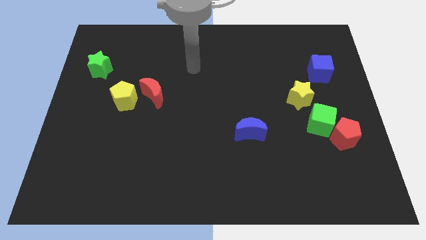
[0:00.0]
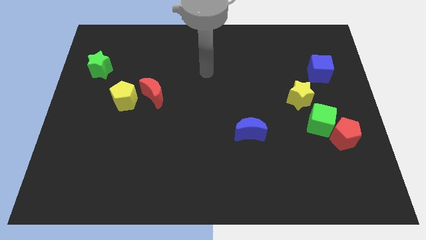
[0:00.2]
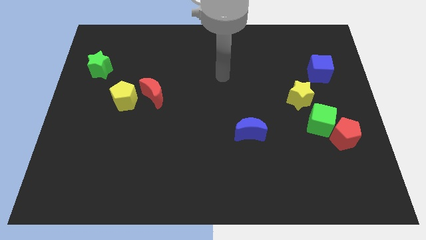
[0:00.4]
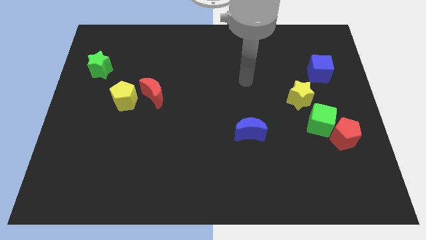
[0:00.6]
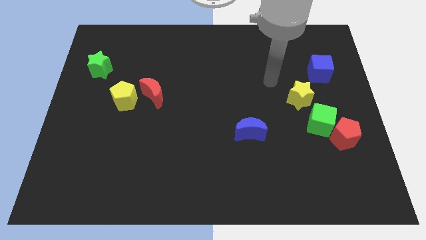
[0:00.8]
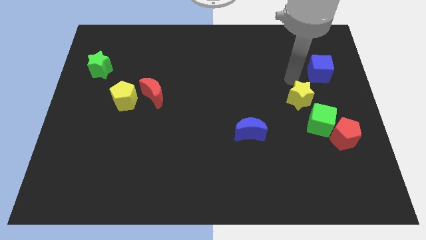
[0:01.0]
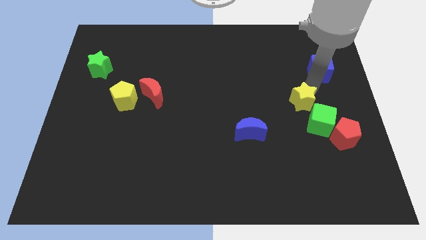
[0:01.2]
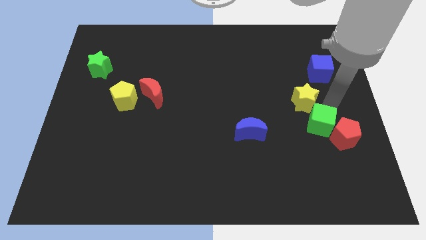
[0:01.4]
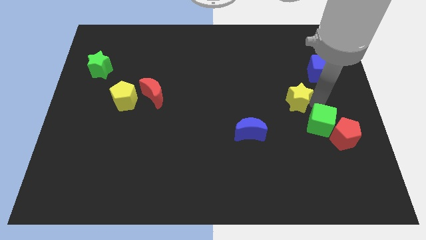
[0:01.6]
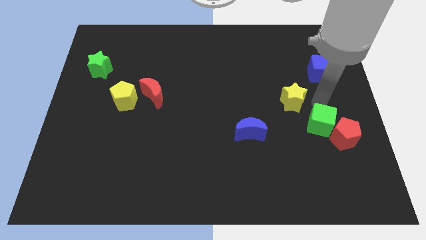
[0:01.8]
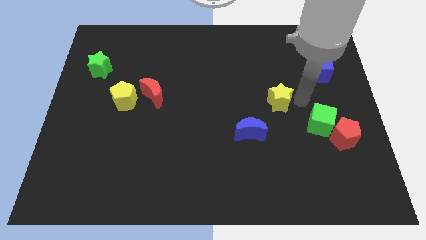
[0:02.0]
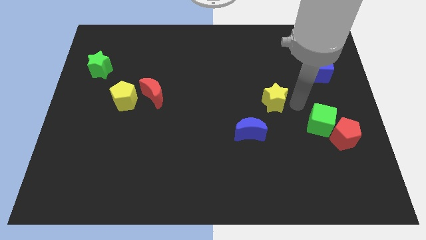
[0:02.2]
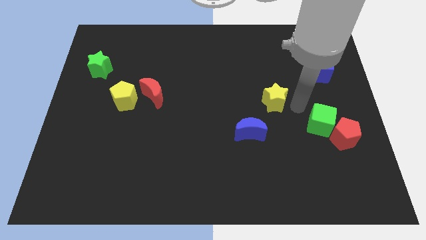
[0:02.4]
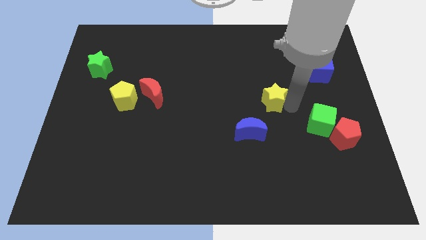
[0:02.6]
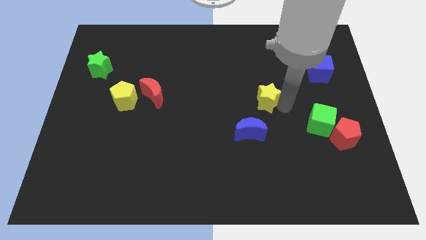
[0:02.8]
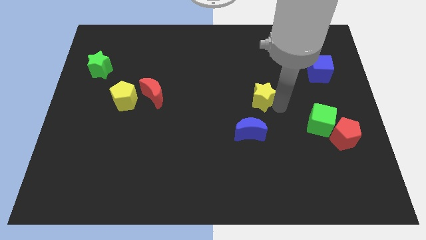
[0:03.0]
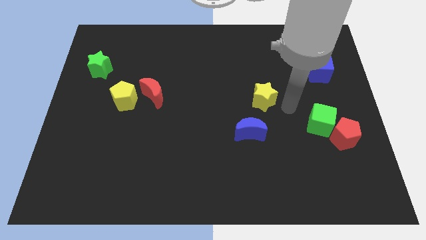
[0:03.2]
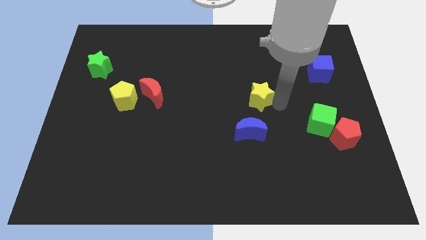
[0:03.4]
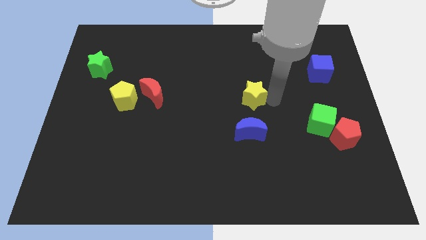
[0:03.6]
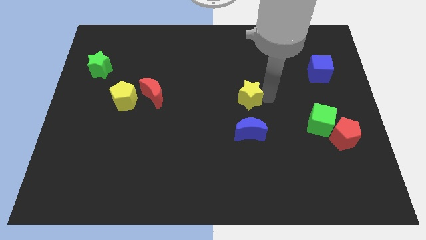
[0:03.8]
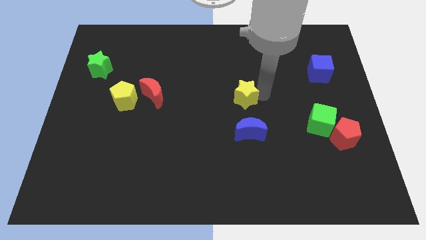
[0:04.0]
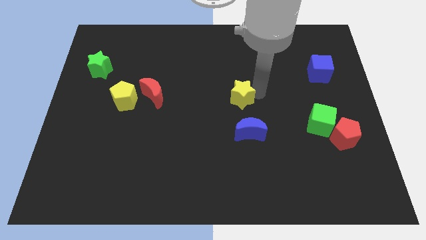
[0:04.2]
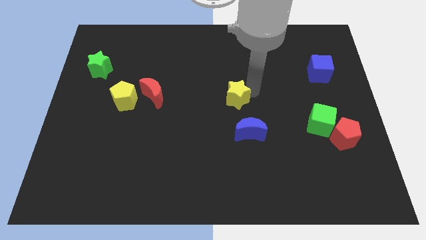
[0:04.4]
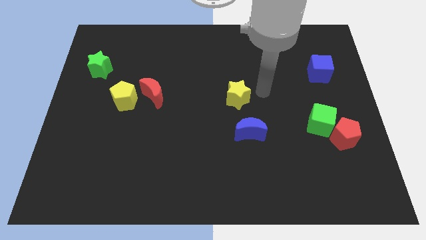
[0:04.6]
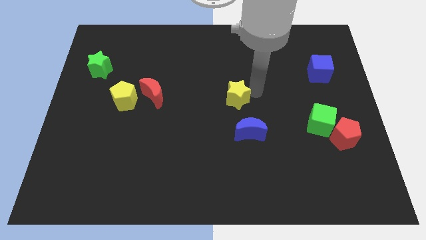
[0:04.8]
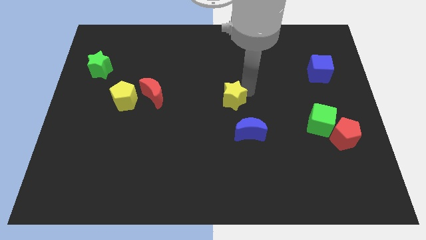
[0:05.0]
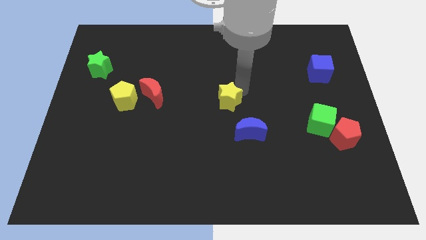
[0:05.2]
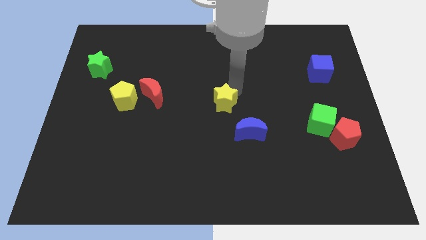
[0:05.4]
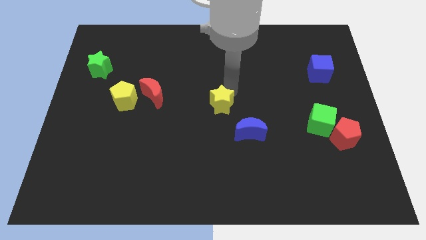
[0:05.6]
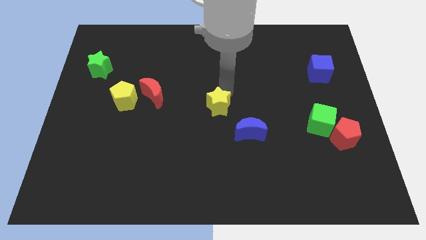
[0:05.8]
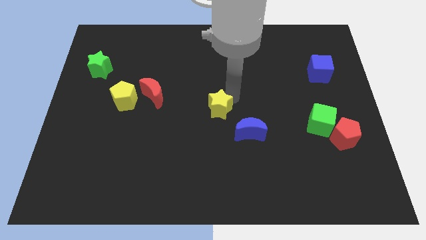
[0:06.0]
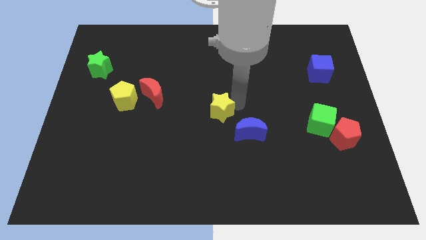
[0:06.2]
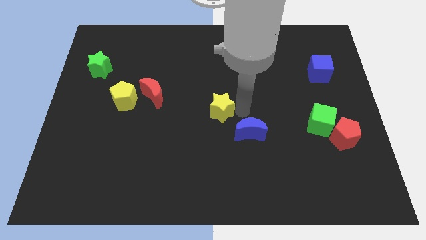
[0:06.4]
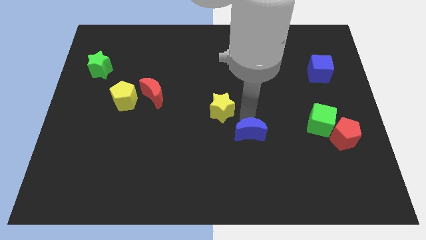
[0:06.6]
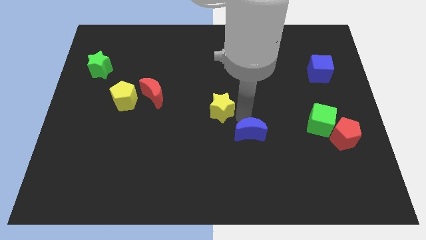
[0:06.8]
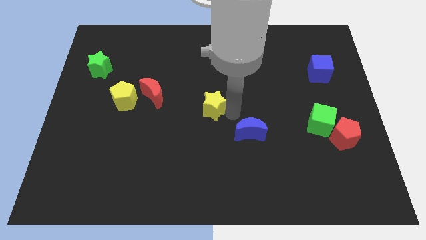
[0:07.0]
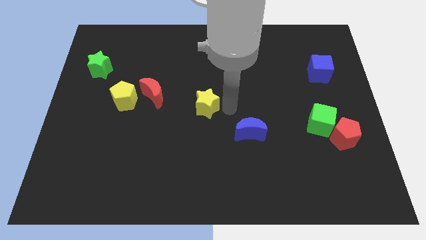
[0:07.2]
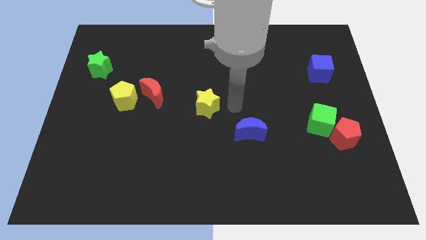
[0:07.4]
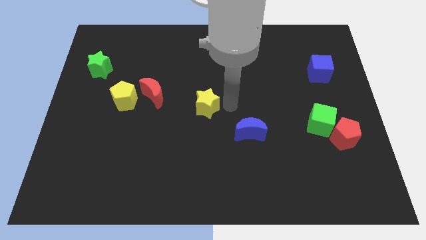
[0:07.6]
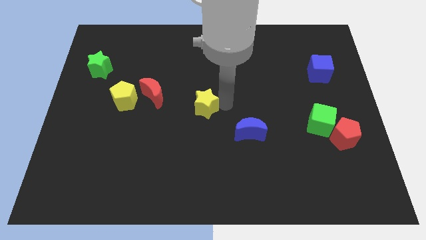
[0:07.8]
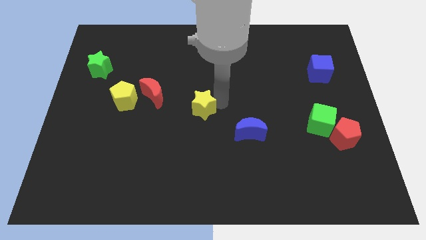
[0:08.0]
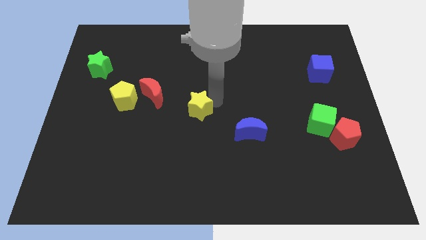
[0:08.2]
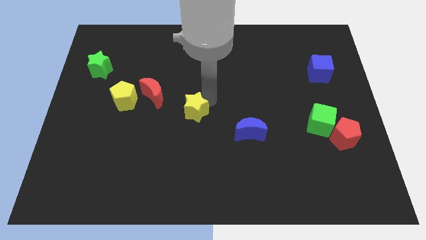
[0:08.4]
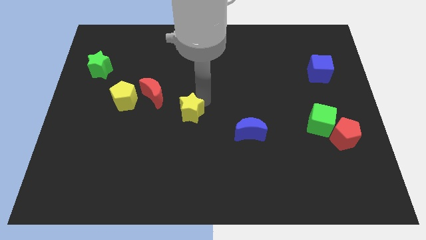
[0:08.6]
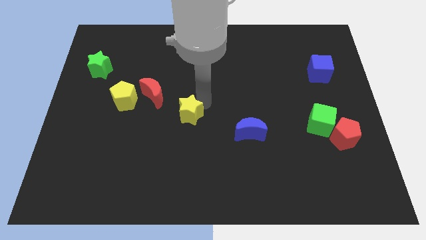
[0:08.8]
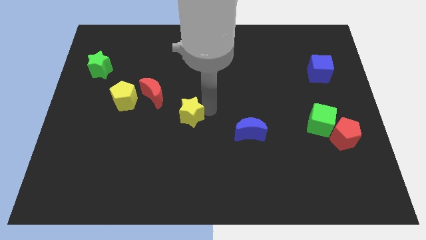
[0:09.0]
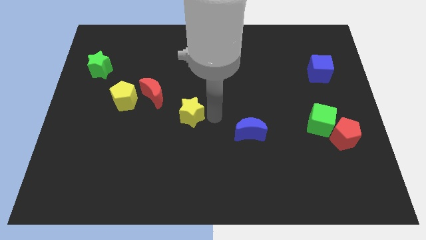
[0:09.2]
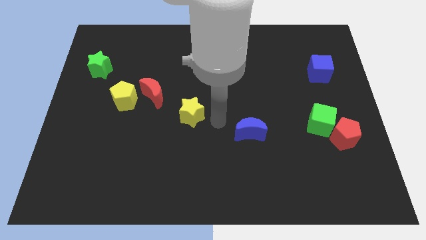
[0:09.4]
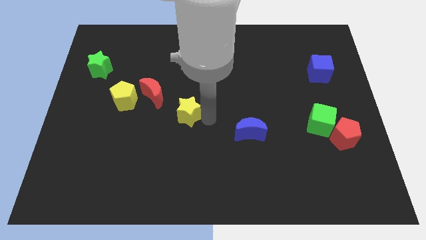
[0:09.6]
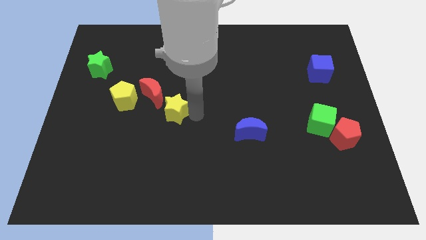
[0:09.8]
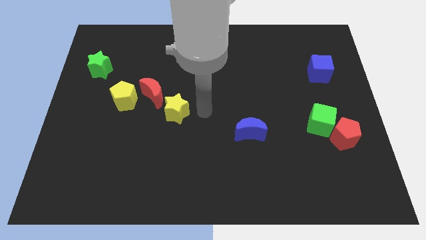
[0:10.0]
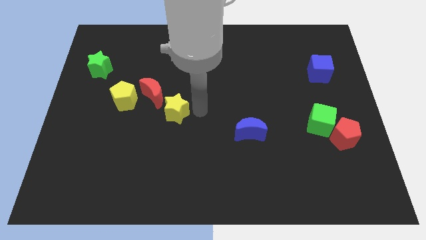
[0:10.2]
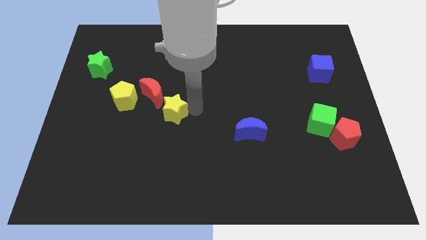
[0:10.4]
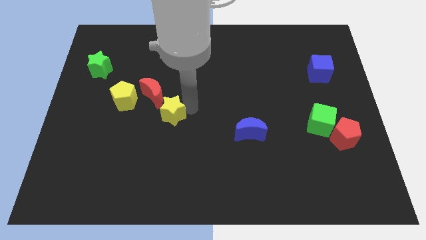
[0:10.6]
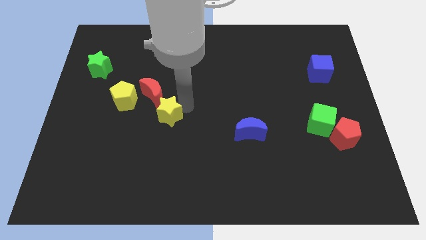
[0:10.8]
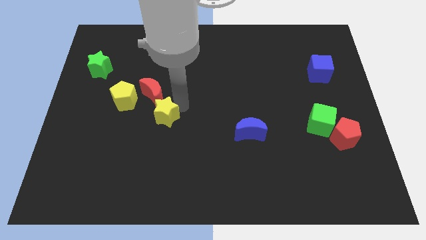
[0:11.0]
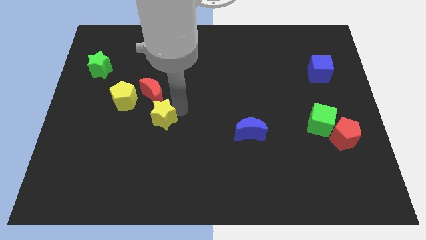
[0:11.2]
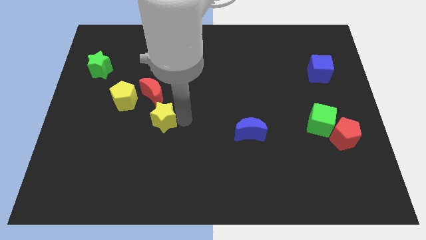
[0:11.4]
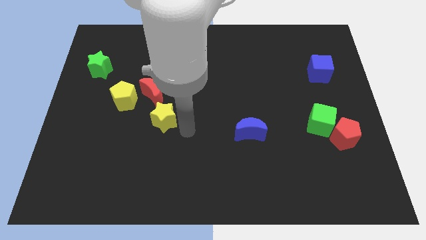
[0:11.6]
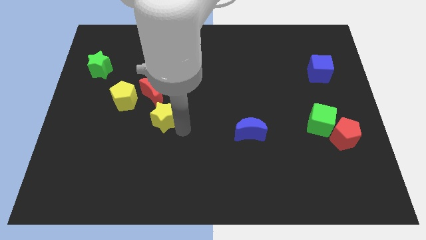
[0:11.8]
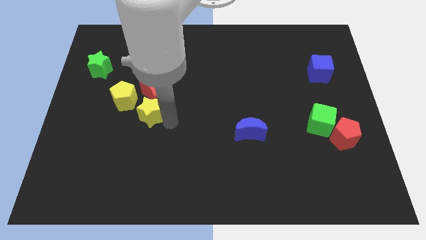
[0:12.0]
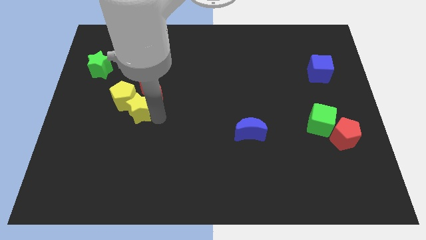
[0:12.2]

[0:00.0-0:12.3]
put the yellow star to the yellow pentagon

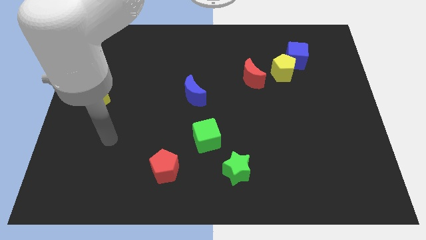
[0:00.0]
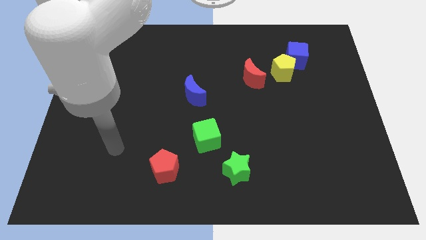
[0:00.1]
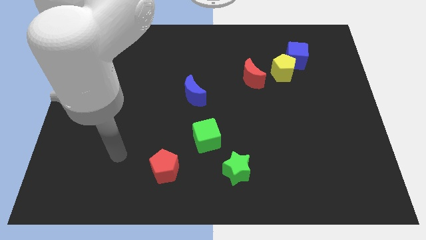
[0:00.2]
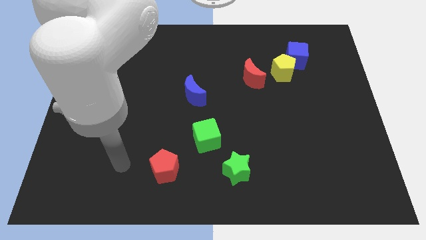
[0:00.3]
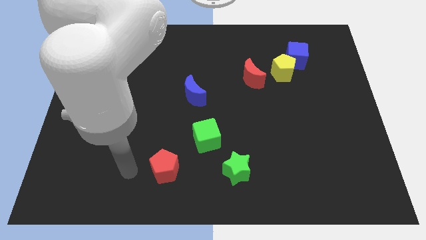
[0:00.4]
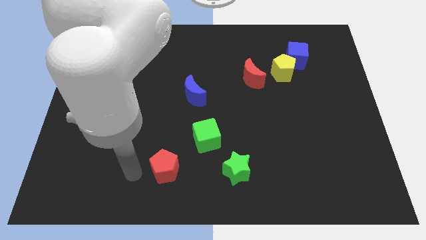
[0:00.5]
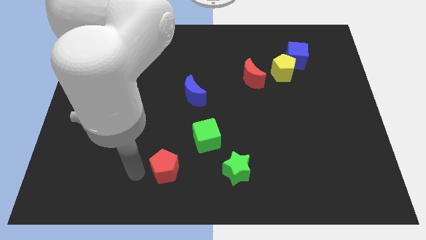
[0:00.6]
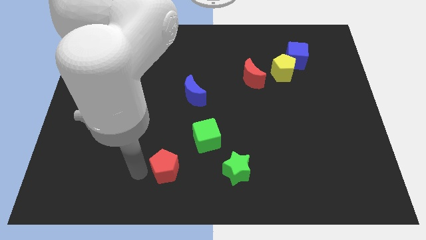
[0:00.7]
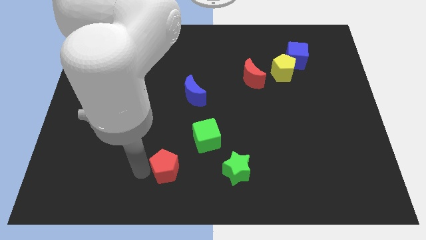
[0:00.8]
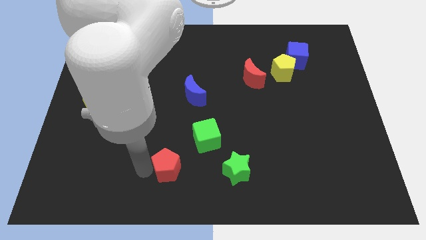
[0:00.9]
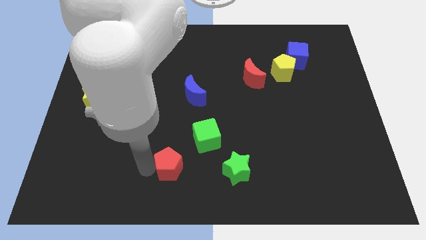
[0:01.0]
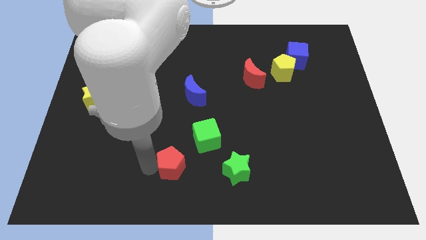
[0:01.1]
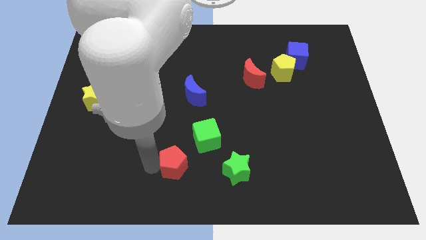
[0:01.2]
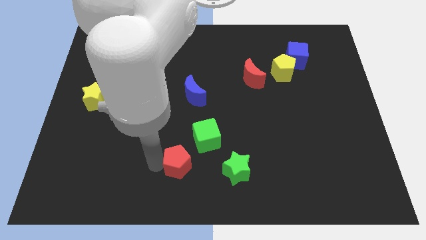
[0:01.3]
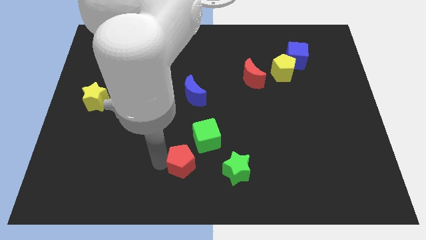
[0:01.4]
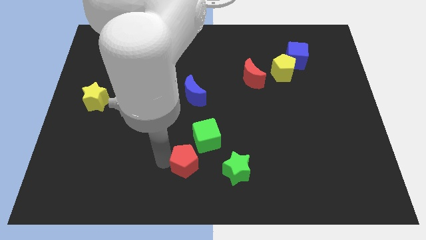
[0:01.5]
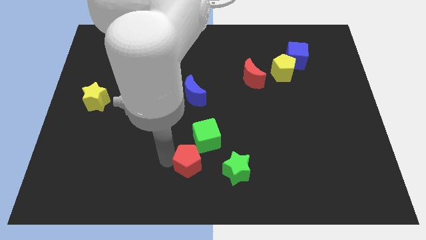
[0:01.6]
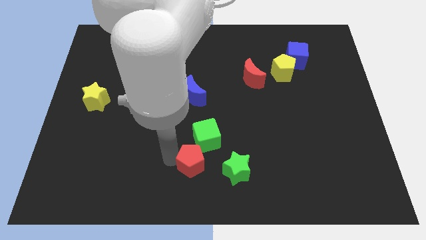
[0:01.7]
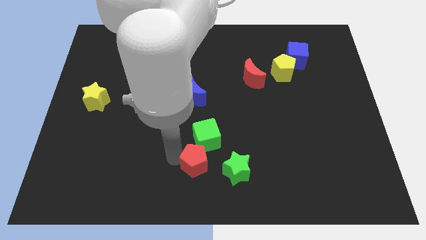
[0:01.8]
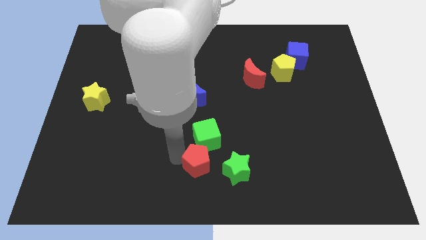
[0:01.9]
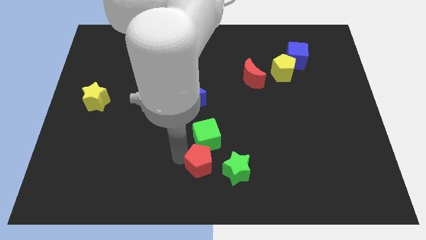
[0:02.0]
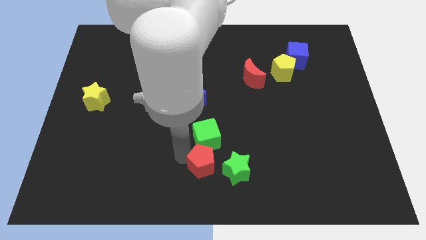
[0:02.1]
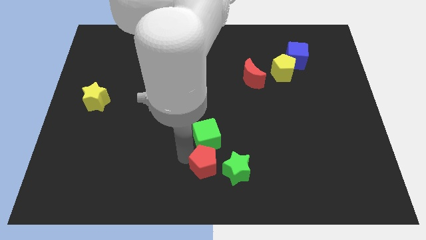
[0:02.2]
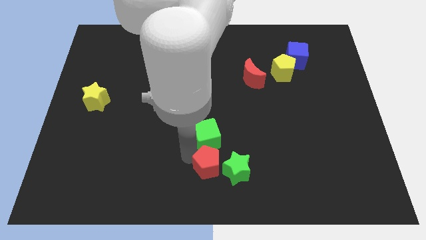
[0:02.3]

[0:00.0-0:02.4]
push the red pentagon close to the green star
